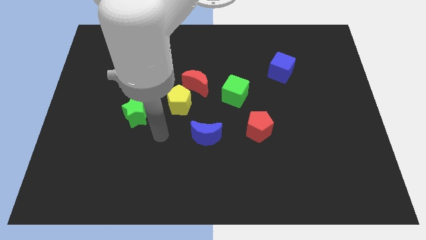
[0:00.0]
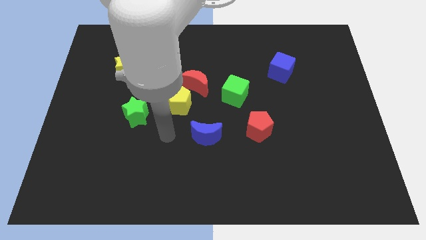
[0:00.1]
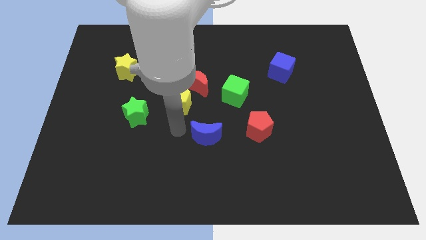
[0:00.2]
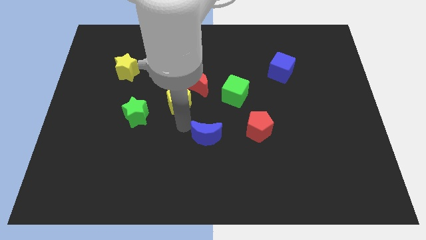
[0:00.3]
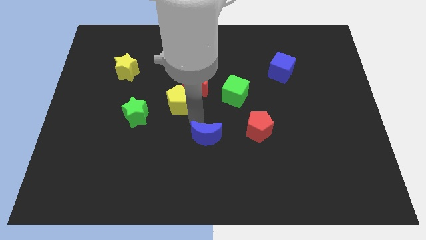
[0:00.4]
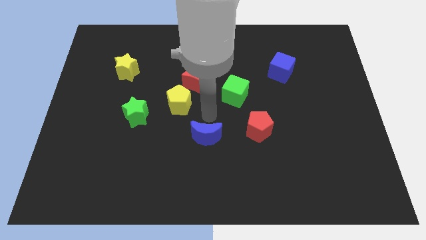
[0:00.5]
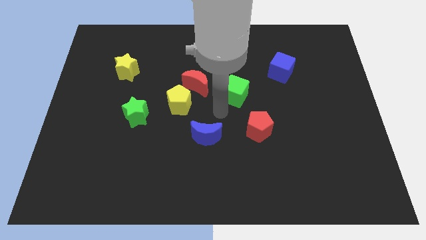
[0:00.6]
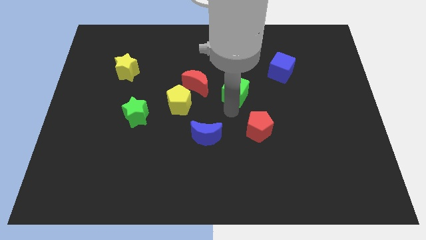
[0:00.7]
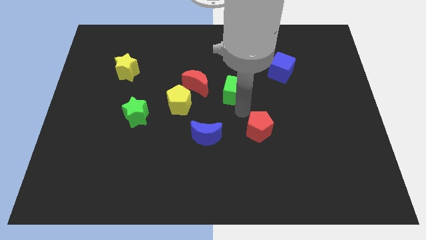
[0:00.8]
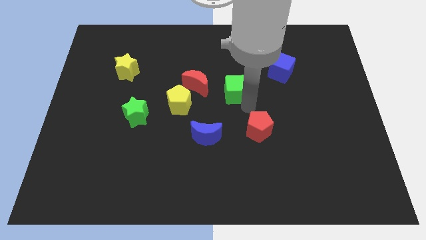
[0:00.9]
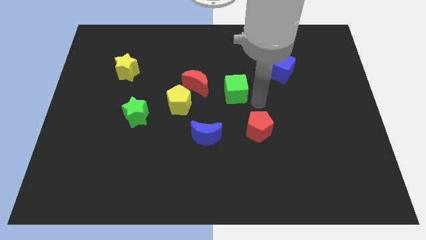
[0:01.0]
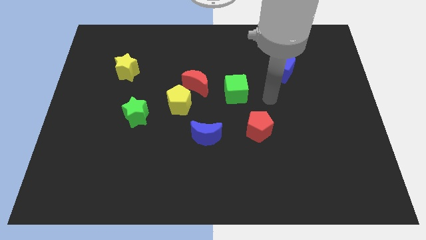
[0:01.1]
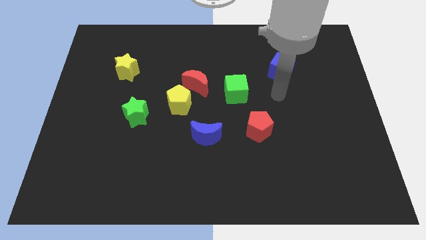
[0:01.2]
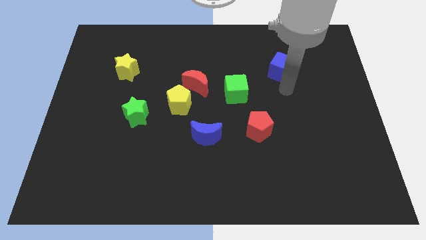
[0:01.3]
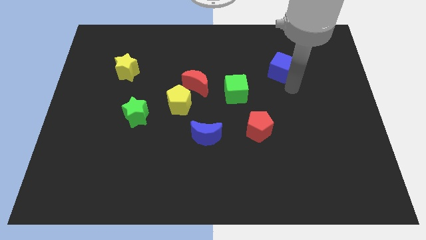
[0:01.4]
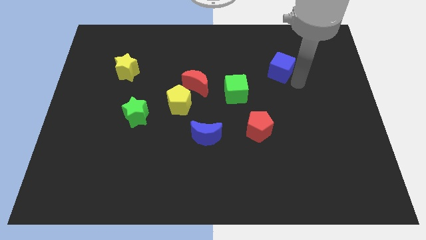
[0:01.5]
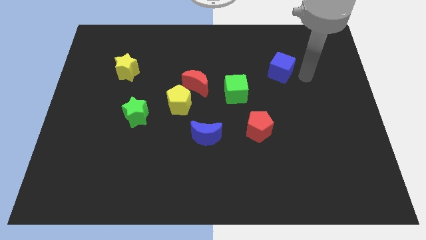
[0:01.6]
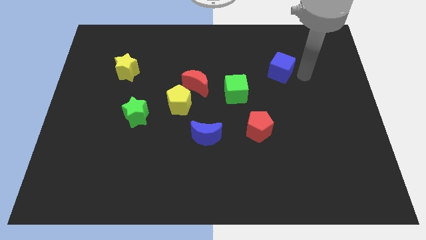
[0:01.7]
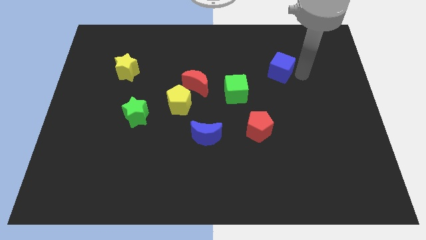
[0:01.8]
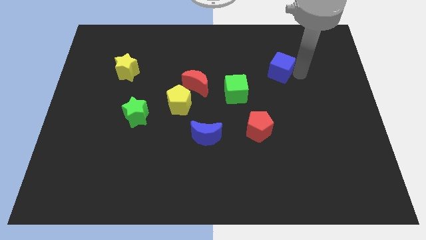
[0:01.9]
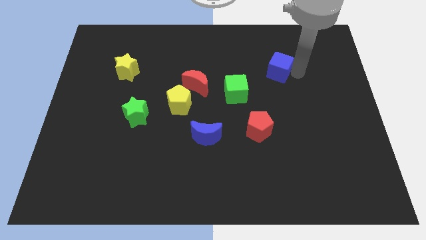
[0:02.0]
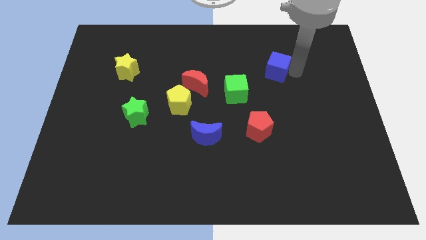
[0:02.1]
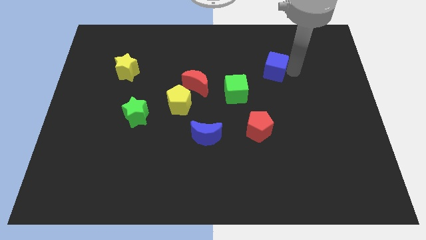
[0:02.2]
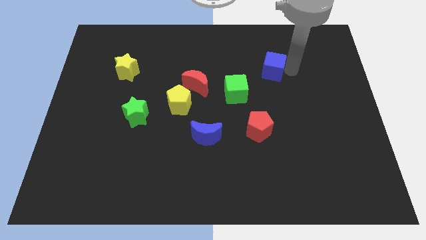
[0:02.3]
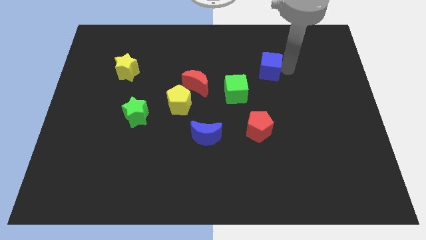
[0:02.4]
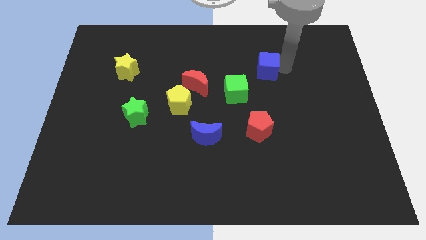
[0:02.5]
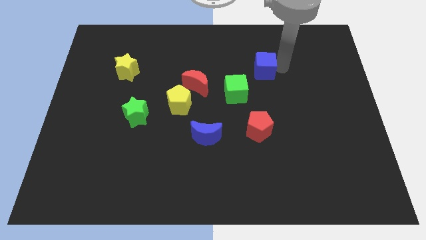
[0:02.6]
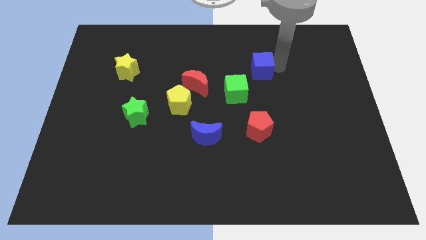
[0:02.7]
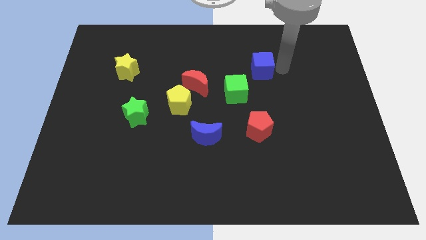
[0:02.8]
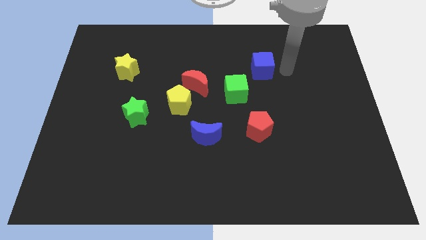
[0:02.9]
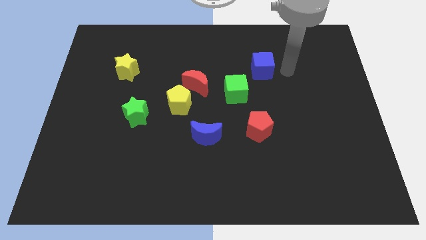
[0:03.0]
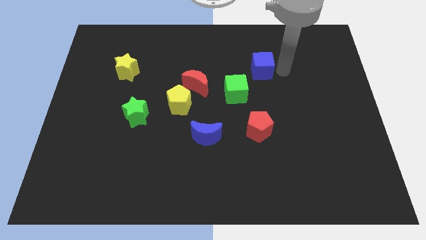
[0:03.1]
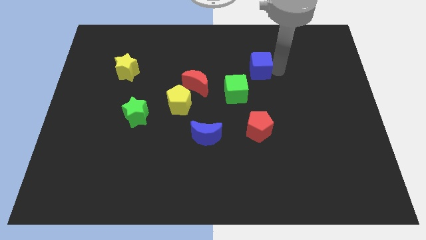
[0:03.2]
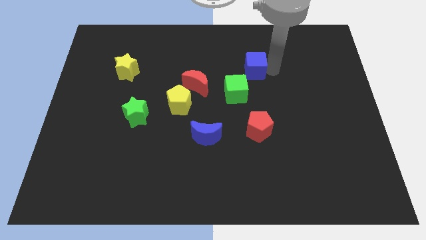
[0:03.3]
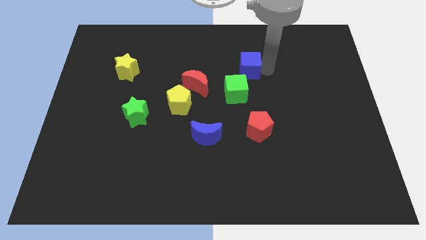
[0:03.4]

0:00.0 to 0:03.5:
slightly slide the blue cube left

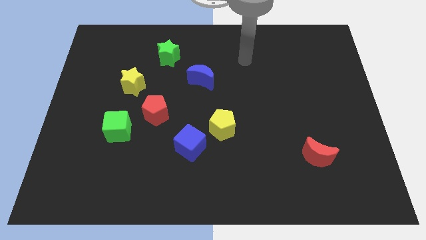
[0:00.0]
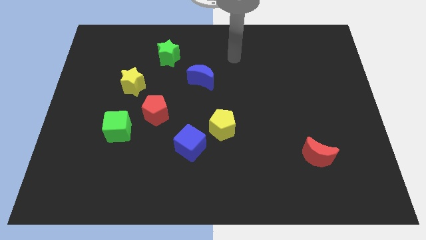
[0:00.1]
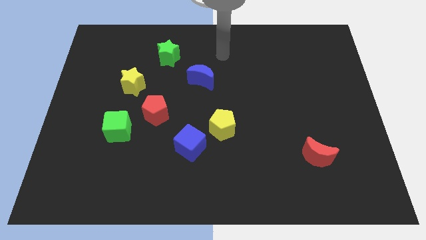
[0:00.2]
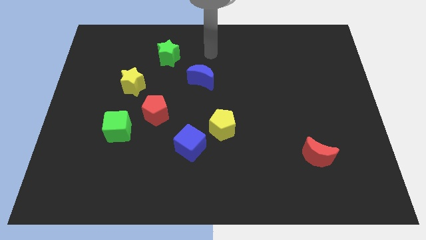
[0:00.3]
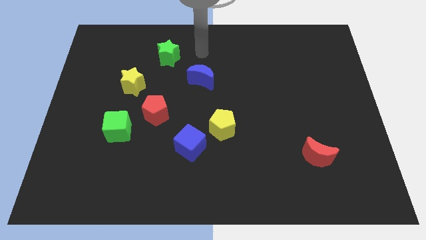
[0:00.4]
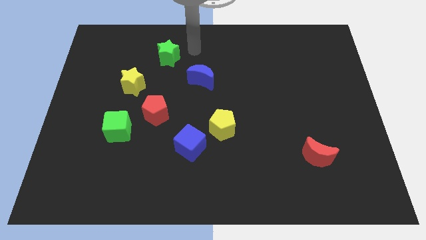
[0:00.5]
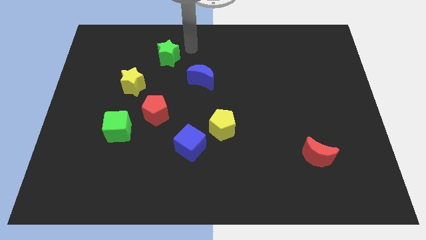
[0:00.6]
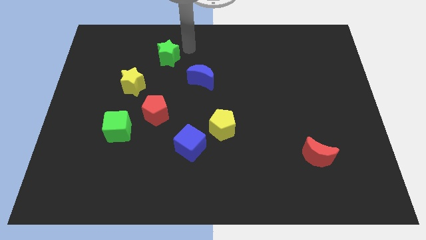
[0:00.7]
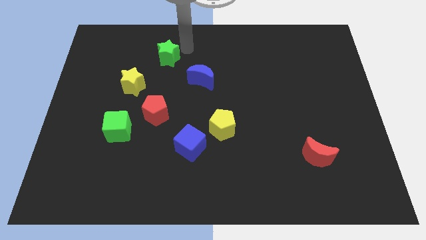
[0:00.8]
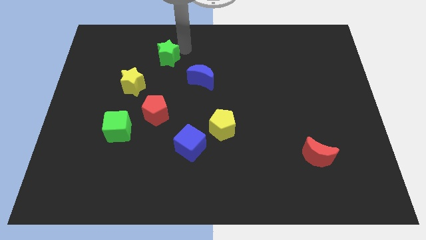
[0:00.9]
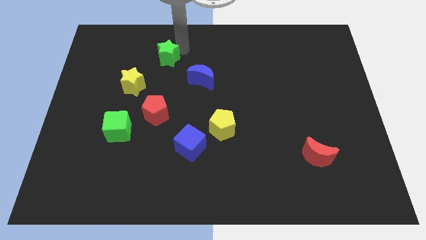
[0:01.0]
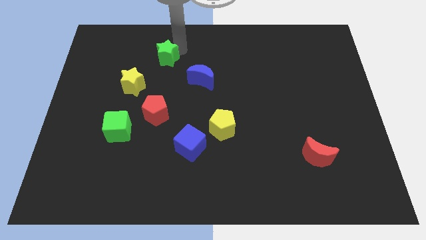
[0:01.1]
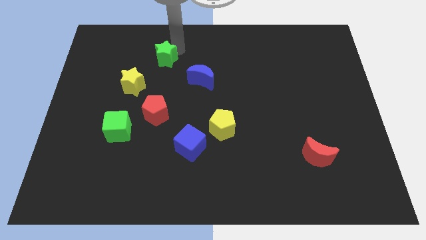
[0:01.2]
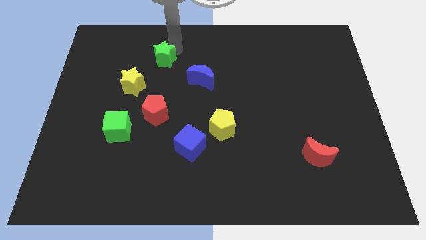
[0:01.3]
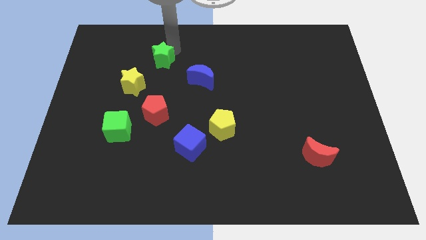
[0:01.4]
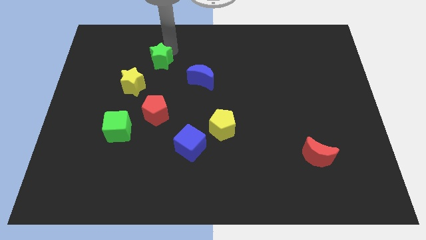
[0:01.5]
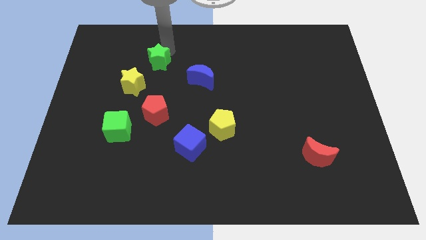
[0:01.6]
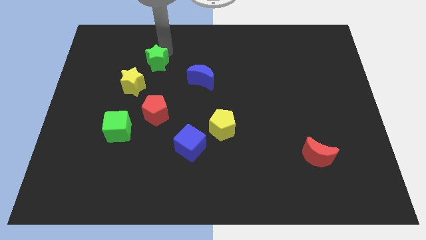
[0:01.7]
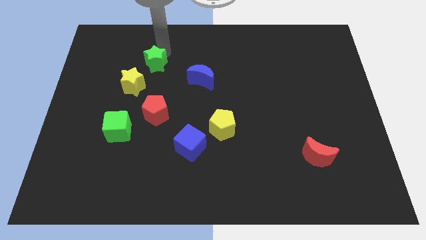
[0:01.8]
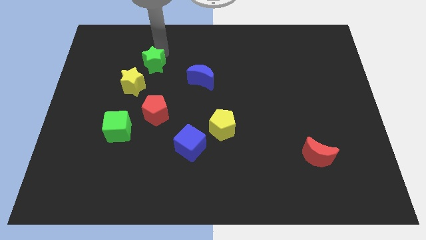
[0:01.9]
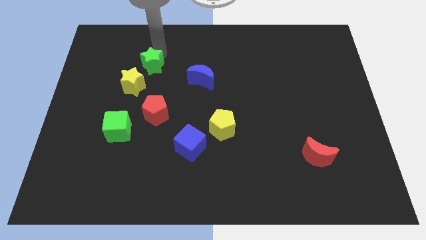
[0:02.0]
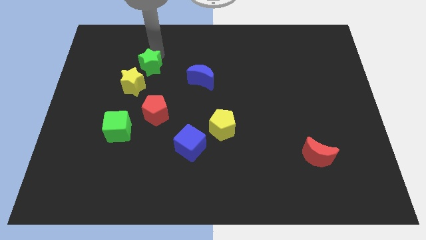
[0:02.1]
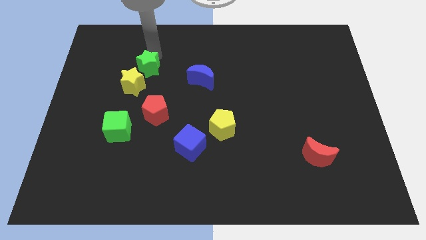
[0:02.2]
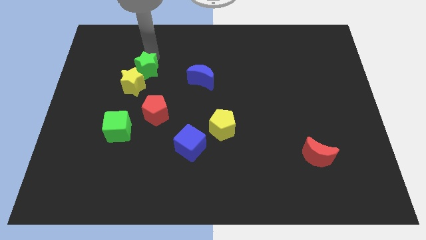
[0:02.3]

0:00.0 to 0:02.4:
push the green star down and then to the left a bit

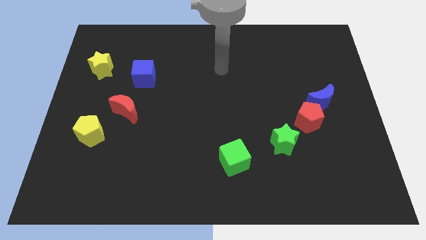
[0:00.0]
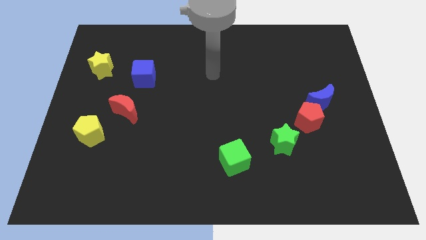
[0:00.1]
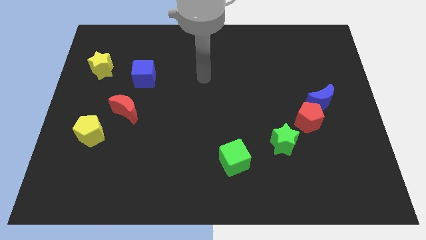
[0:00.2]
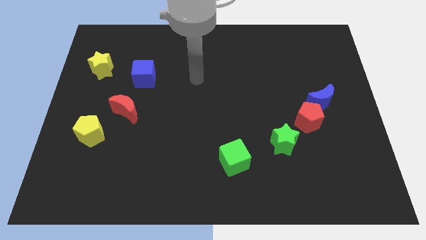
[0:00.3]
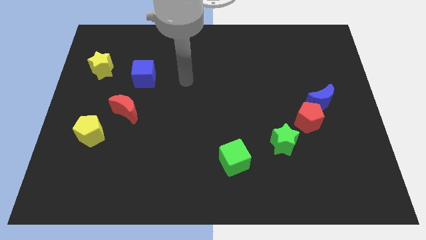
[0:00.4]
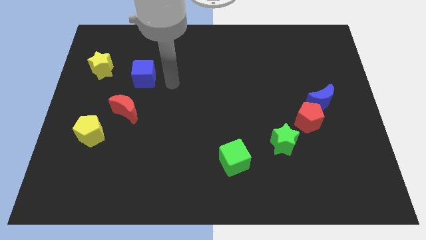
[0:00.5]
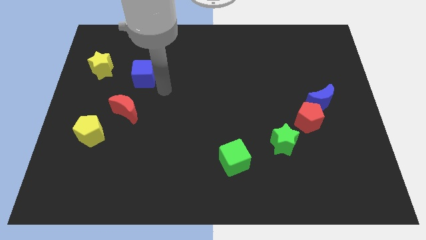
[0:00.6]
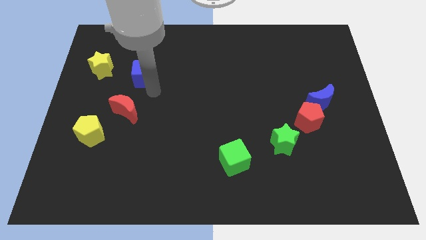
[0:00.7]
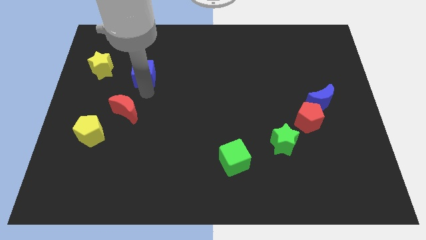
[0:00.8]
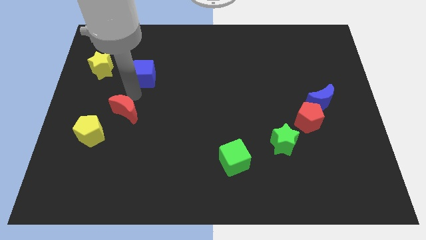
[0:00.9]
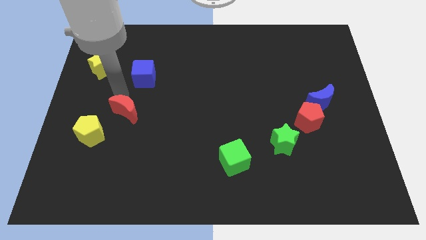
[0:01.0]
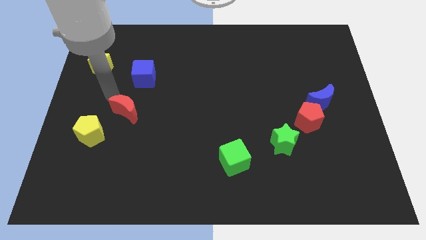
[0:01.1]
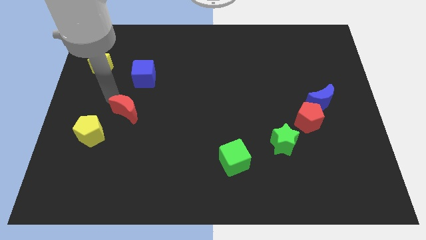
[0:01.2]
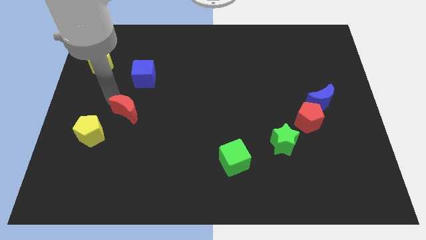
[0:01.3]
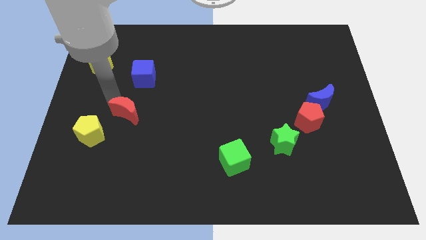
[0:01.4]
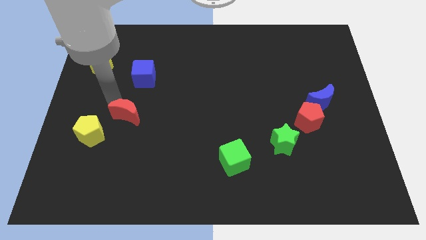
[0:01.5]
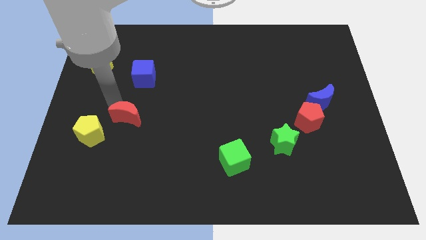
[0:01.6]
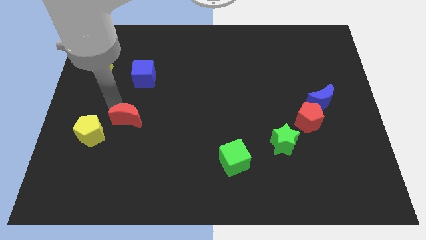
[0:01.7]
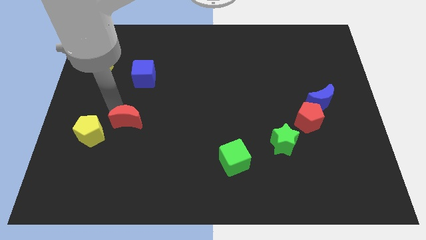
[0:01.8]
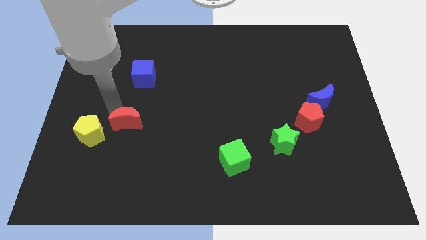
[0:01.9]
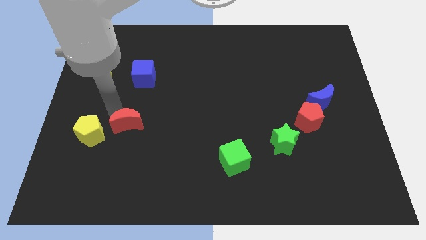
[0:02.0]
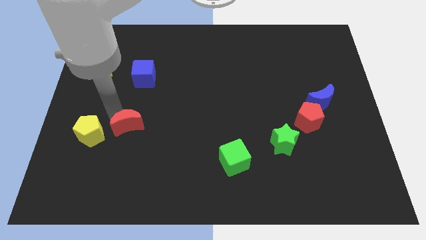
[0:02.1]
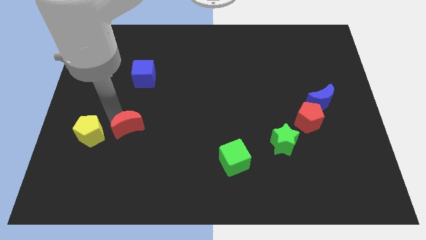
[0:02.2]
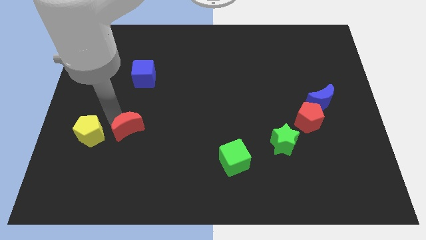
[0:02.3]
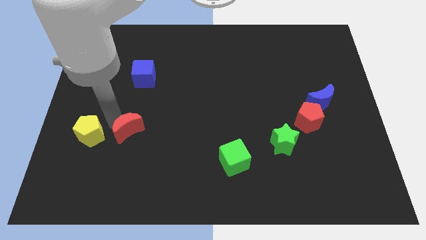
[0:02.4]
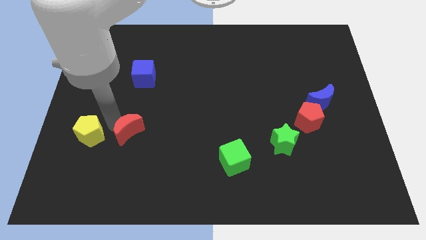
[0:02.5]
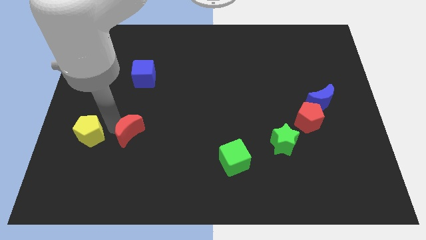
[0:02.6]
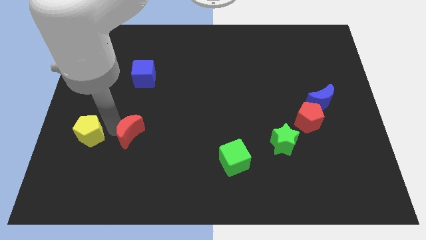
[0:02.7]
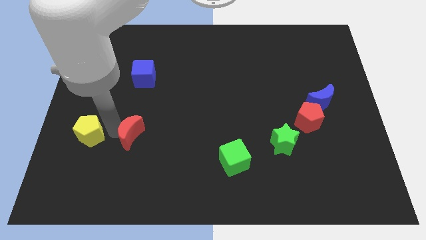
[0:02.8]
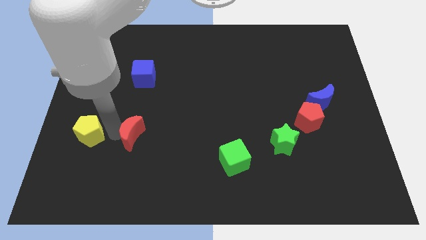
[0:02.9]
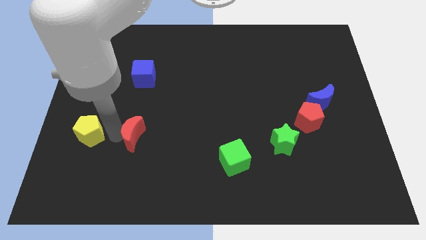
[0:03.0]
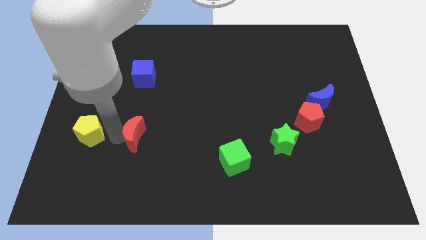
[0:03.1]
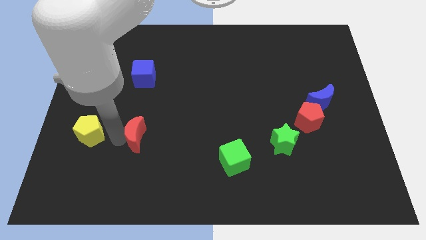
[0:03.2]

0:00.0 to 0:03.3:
slightly push the red moon downwards and then to the right
